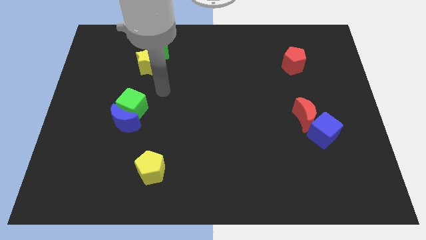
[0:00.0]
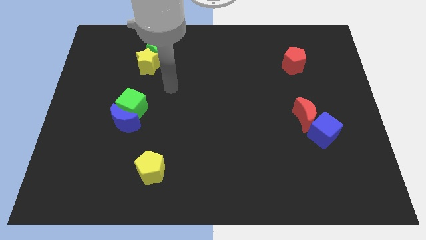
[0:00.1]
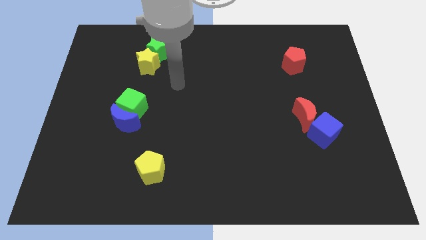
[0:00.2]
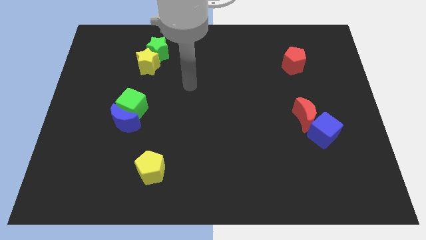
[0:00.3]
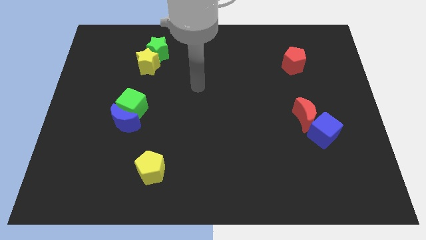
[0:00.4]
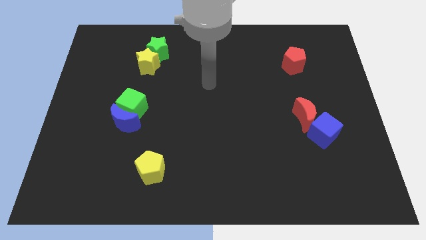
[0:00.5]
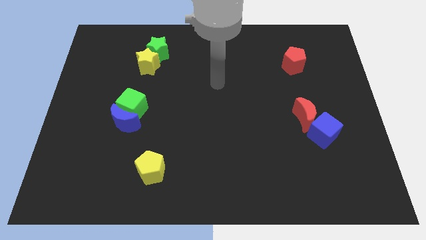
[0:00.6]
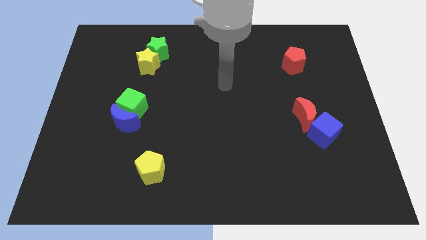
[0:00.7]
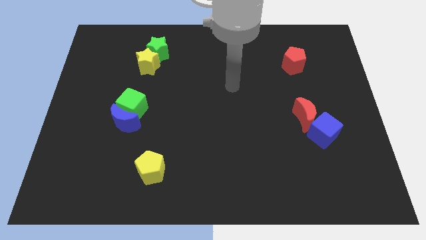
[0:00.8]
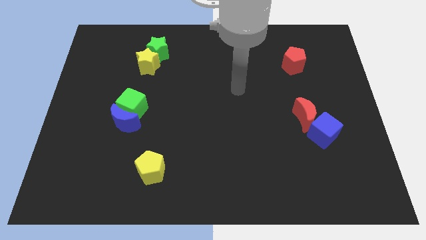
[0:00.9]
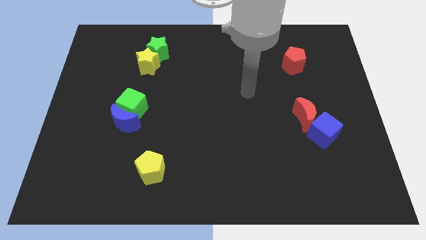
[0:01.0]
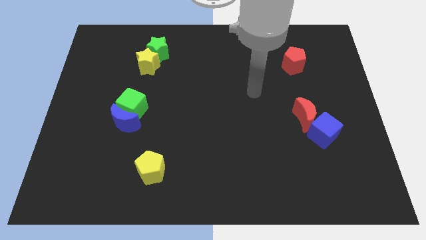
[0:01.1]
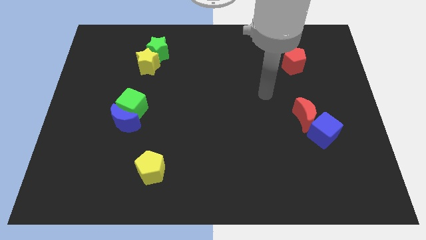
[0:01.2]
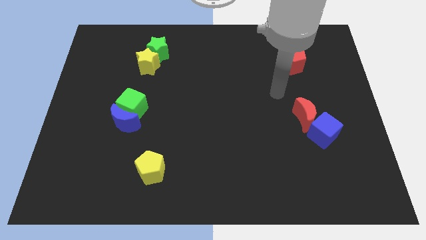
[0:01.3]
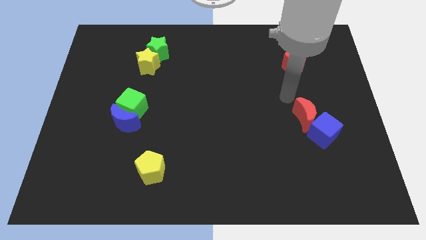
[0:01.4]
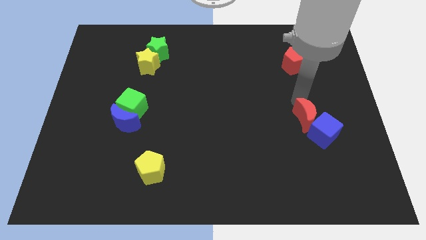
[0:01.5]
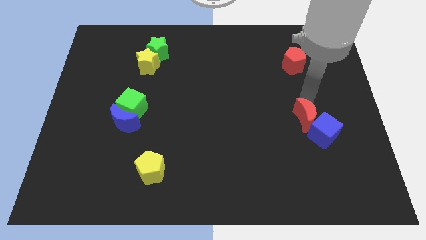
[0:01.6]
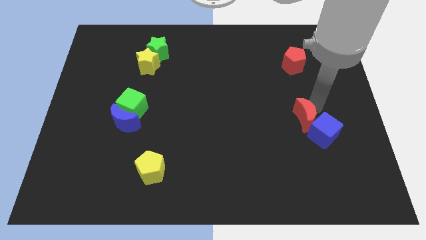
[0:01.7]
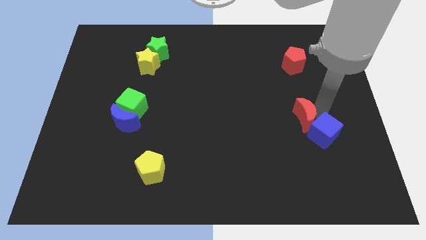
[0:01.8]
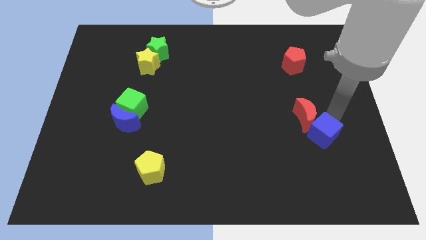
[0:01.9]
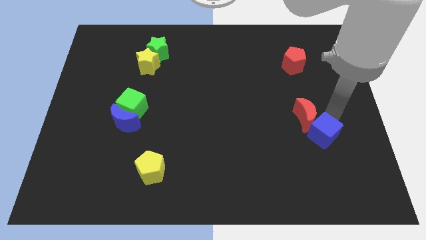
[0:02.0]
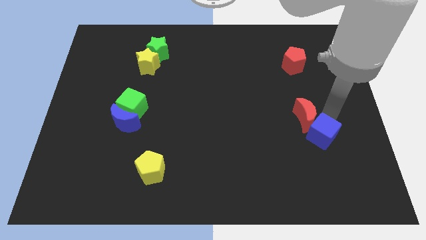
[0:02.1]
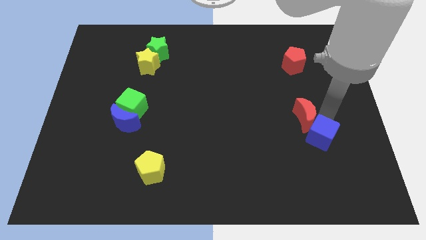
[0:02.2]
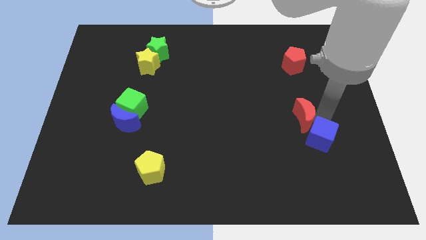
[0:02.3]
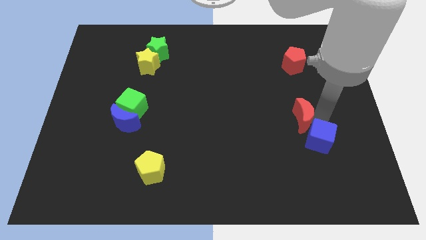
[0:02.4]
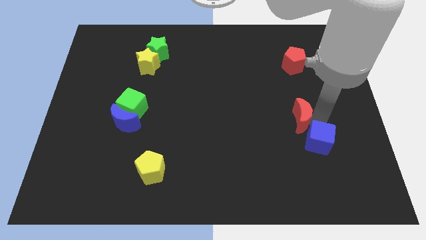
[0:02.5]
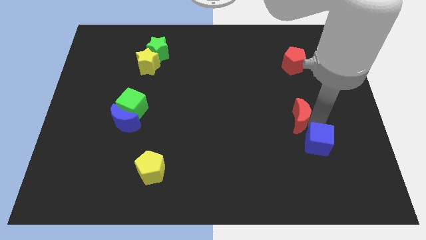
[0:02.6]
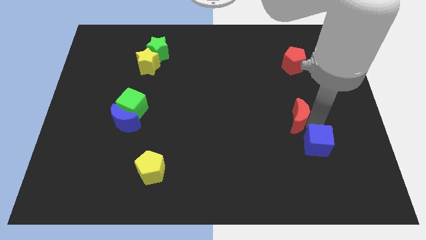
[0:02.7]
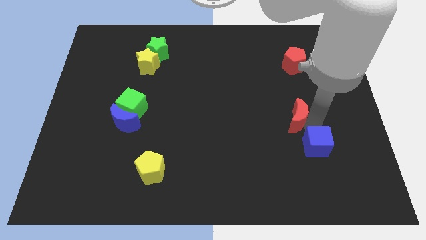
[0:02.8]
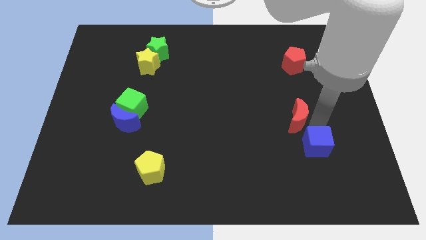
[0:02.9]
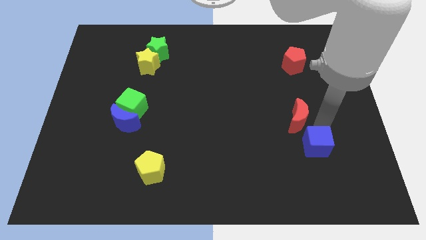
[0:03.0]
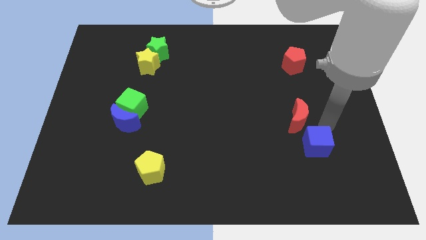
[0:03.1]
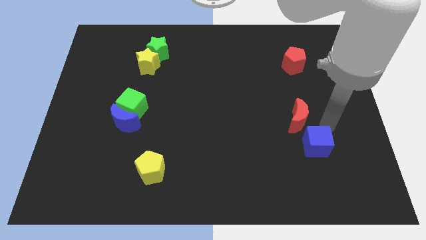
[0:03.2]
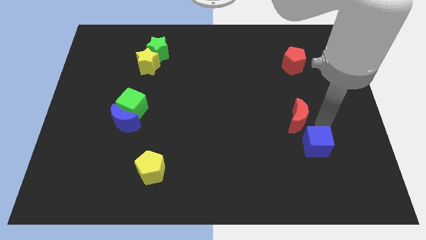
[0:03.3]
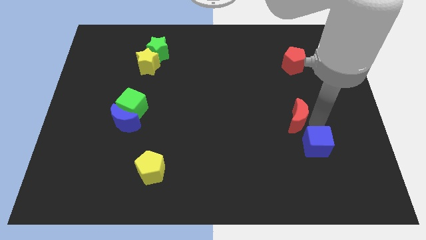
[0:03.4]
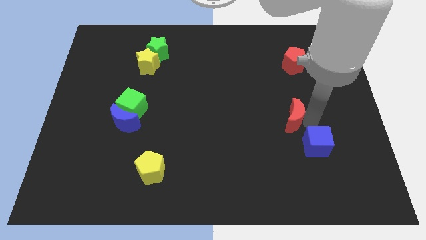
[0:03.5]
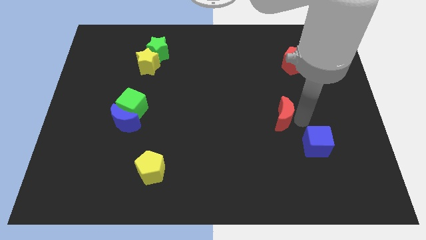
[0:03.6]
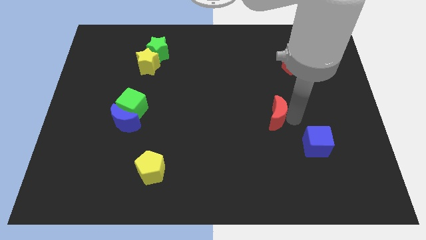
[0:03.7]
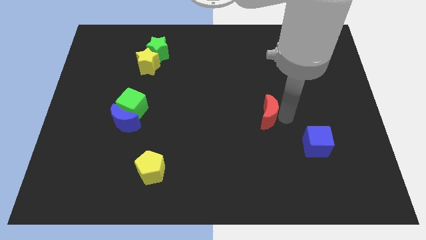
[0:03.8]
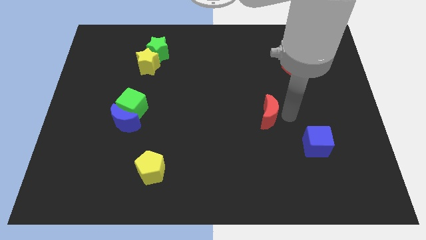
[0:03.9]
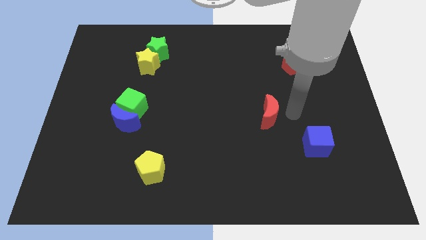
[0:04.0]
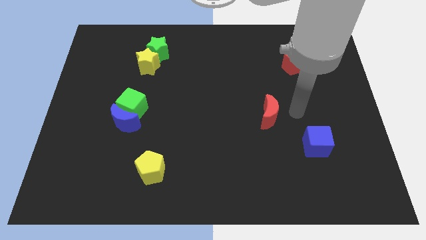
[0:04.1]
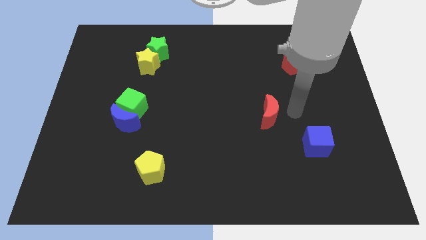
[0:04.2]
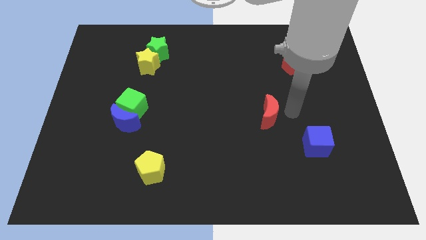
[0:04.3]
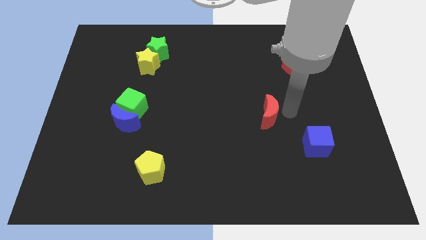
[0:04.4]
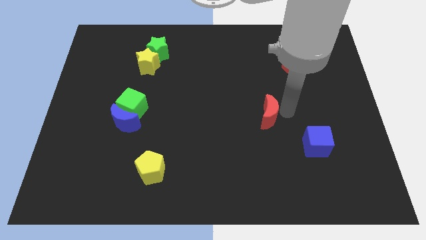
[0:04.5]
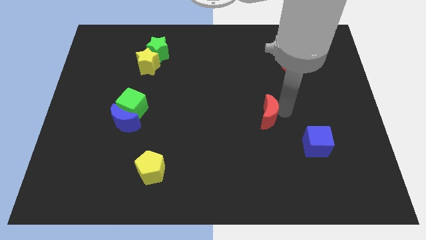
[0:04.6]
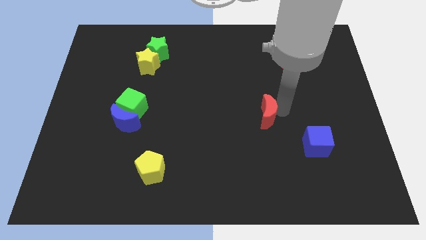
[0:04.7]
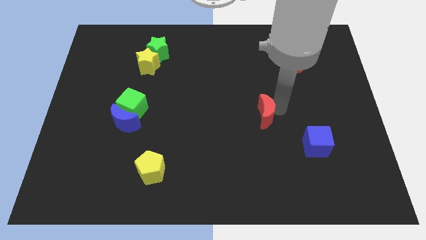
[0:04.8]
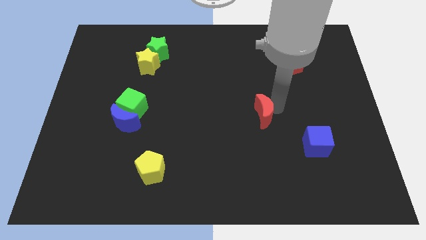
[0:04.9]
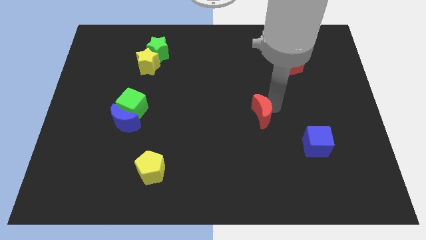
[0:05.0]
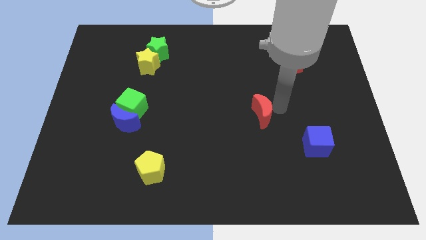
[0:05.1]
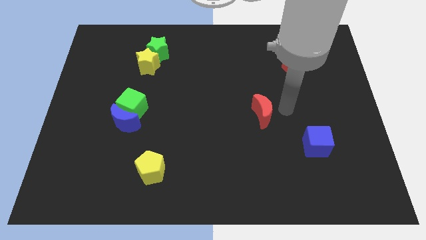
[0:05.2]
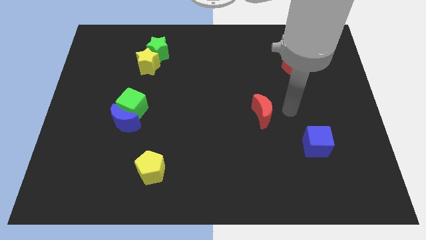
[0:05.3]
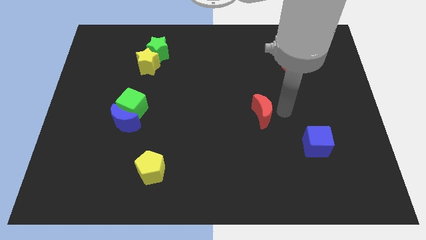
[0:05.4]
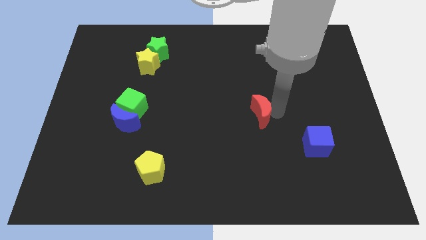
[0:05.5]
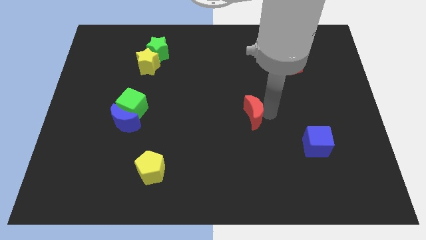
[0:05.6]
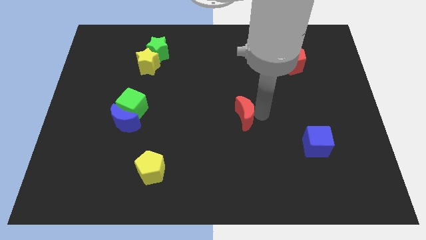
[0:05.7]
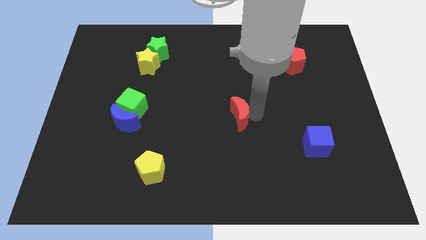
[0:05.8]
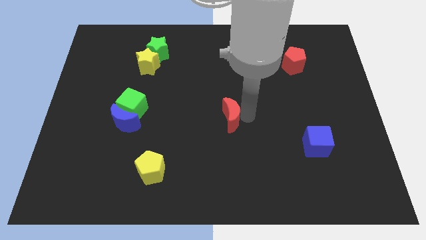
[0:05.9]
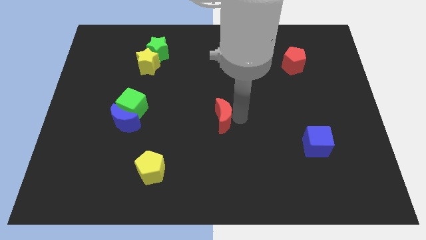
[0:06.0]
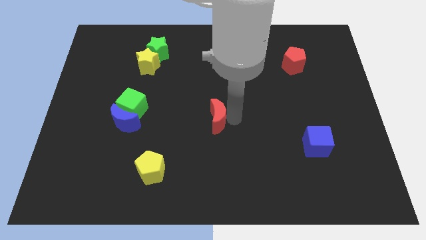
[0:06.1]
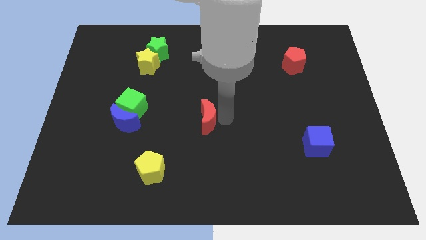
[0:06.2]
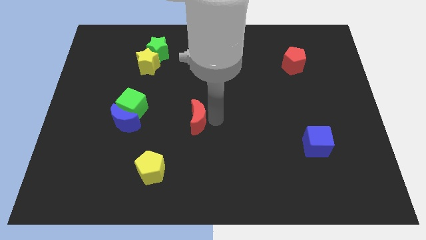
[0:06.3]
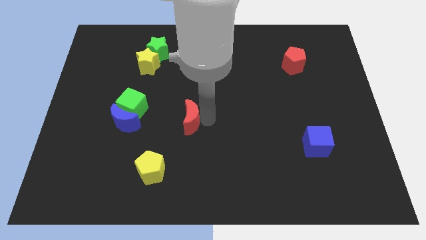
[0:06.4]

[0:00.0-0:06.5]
move the red moon just right of the blue moon

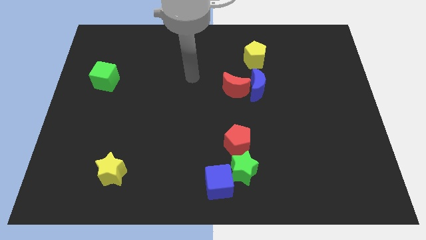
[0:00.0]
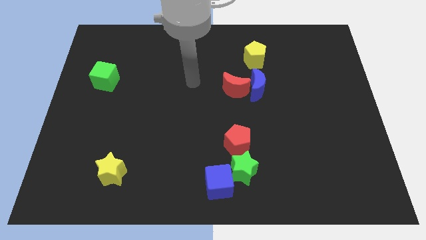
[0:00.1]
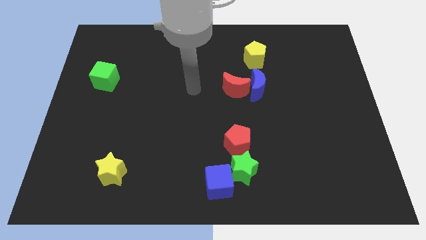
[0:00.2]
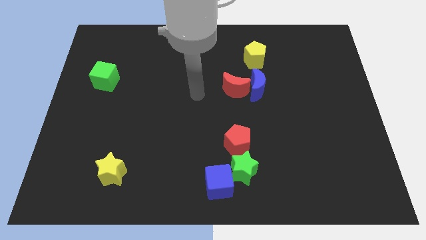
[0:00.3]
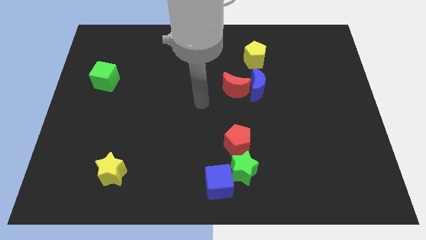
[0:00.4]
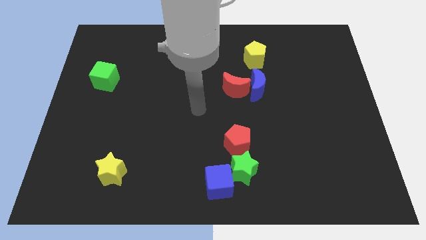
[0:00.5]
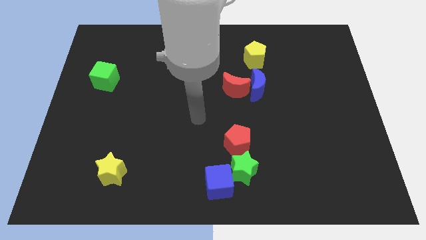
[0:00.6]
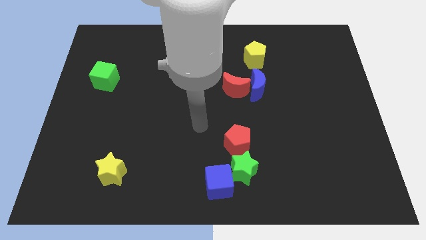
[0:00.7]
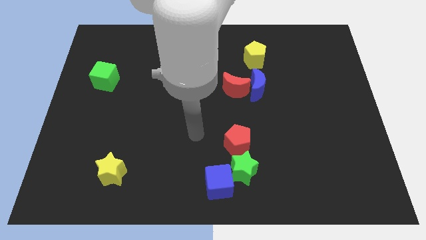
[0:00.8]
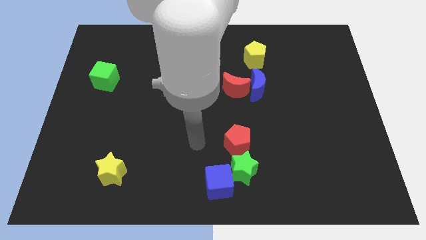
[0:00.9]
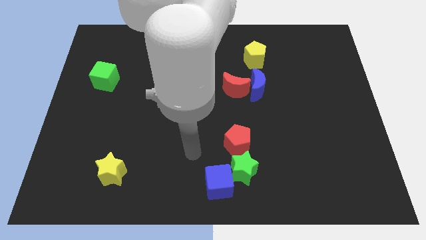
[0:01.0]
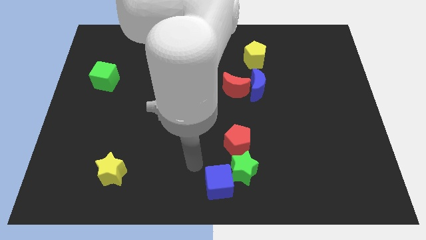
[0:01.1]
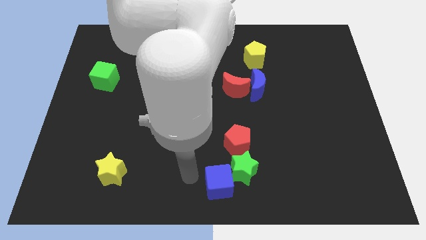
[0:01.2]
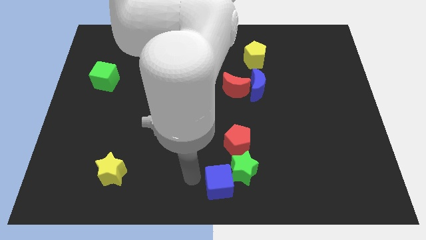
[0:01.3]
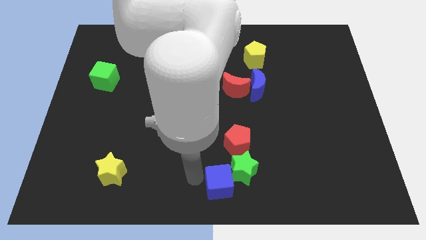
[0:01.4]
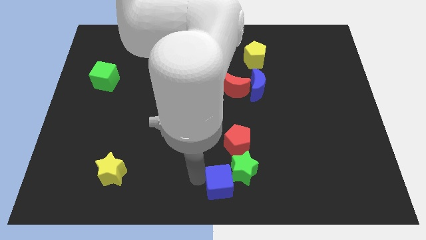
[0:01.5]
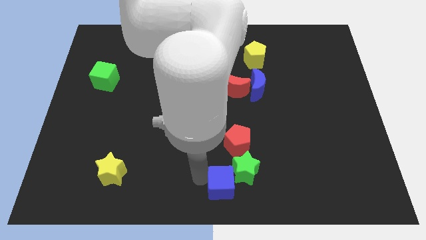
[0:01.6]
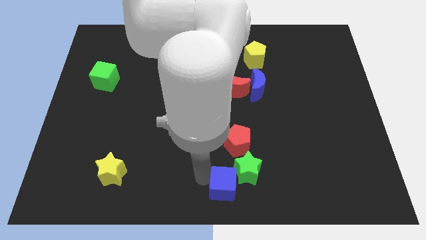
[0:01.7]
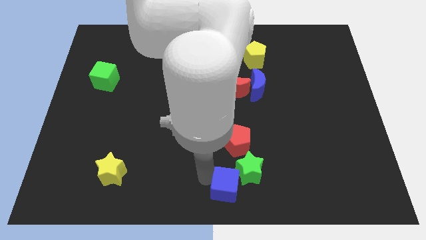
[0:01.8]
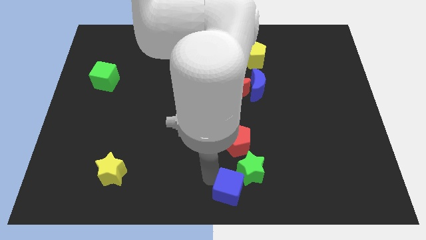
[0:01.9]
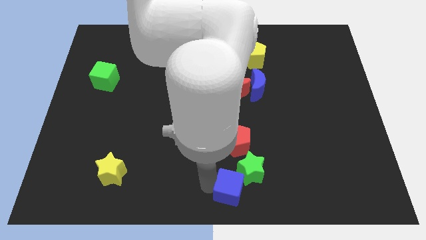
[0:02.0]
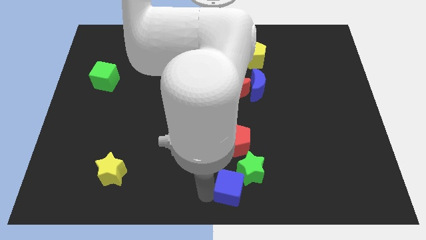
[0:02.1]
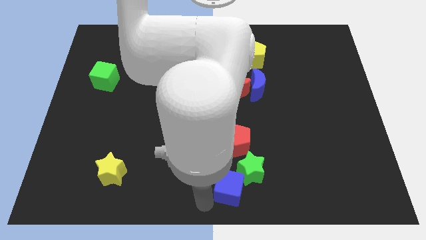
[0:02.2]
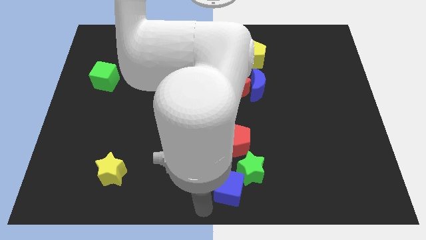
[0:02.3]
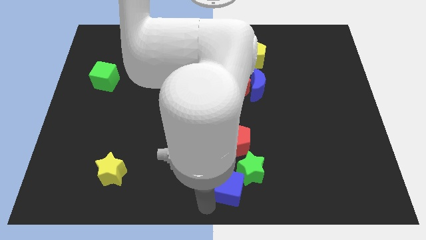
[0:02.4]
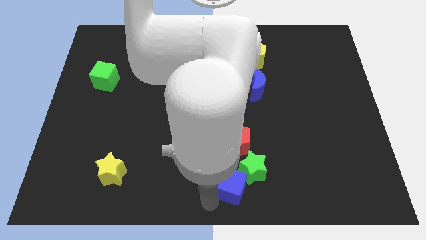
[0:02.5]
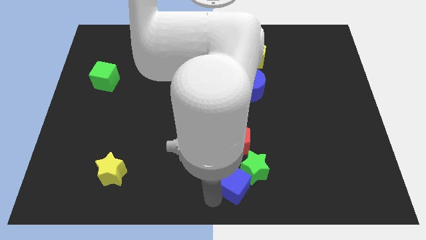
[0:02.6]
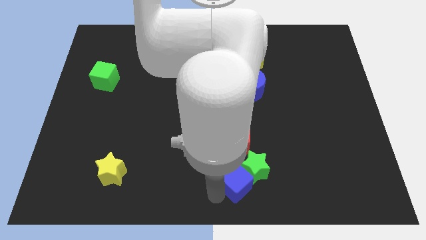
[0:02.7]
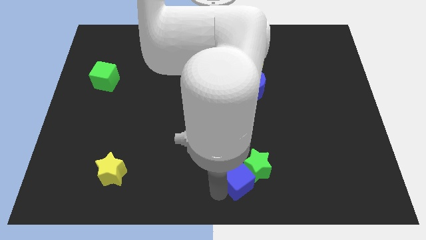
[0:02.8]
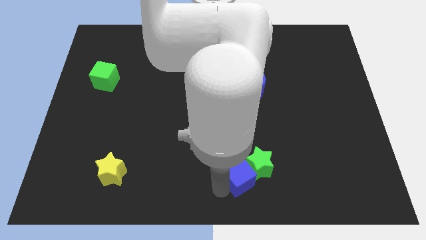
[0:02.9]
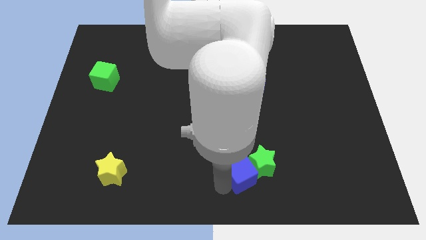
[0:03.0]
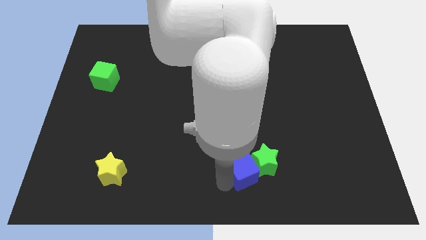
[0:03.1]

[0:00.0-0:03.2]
put the blue cube diagonally down and to the right of the red pentagon
